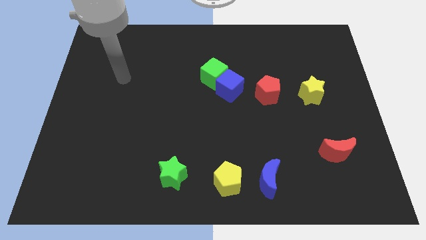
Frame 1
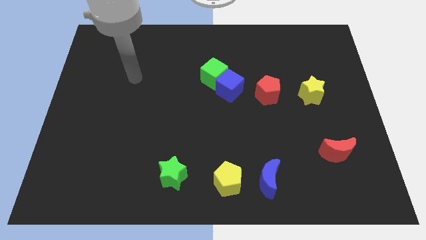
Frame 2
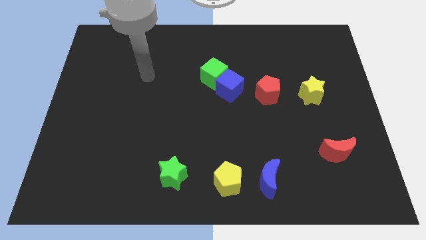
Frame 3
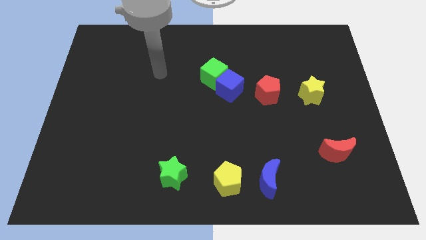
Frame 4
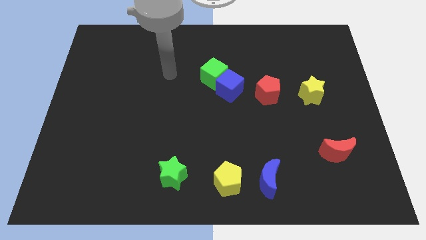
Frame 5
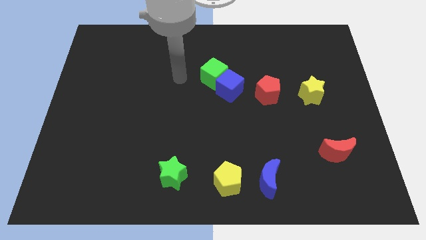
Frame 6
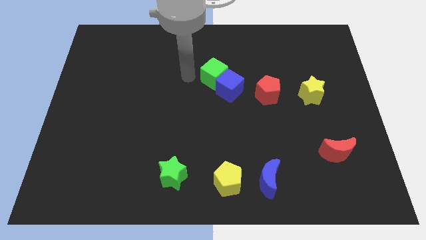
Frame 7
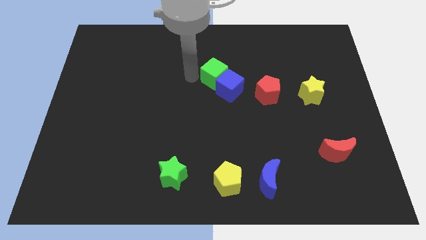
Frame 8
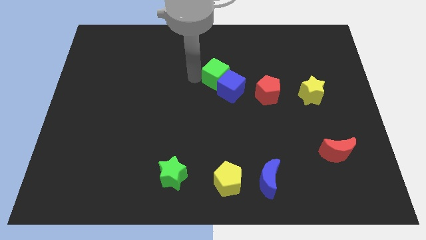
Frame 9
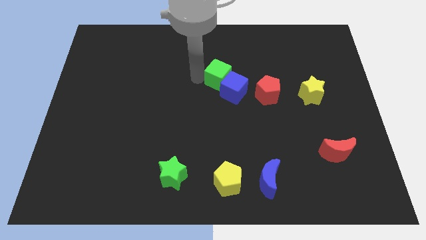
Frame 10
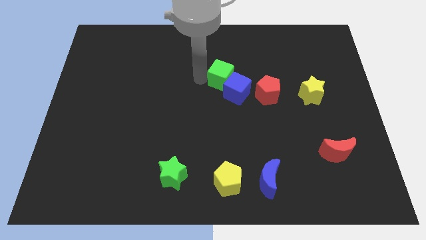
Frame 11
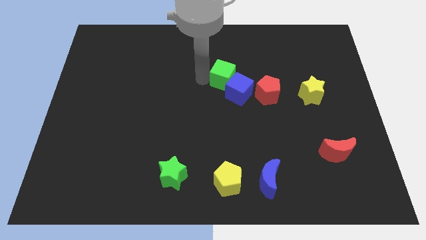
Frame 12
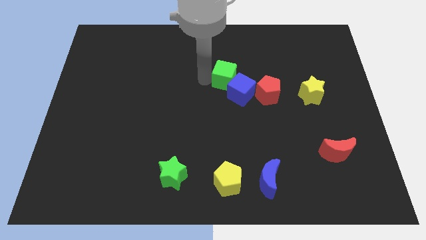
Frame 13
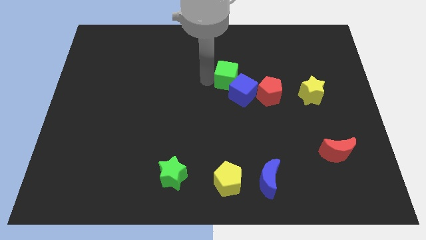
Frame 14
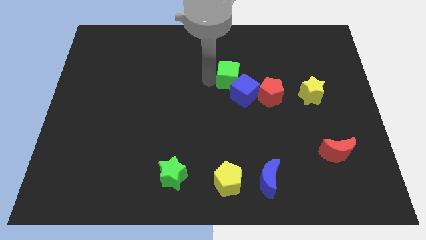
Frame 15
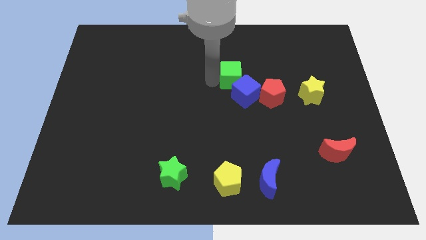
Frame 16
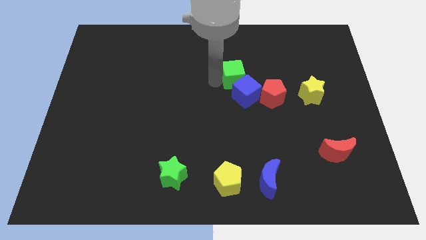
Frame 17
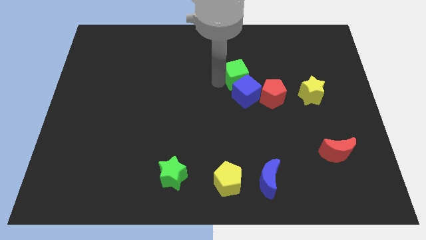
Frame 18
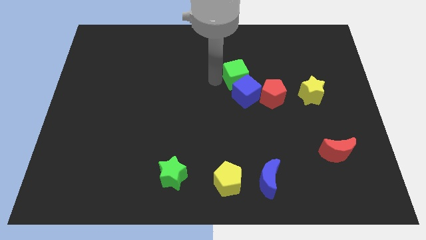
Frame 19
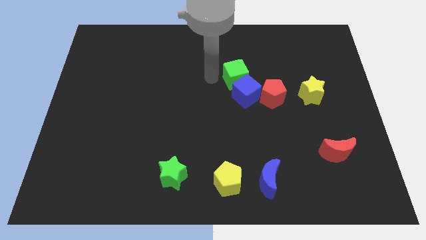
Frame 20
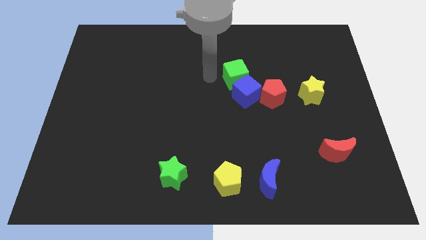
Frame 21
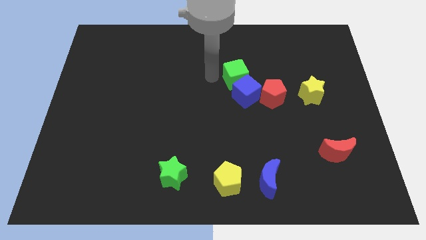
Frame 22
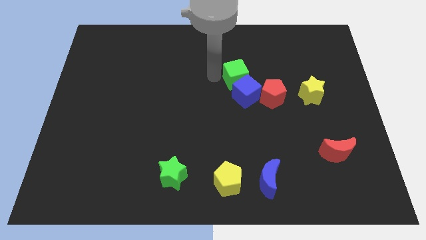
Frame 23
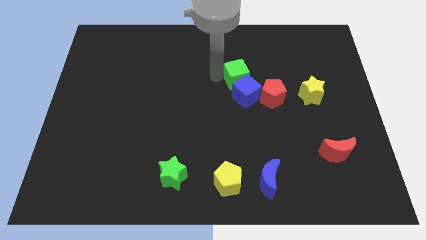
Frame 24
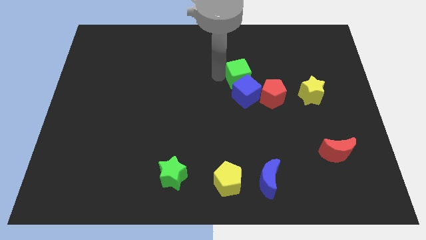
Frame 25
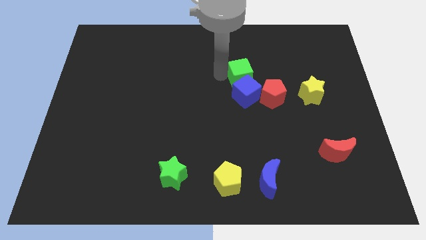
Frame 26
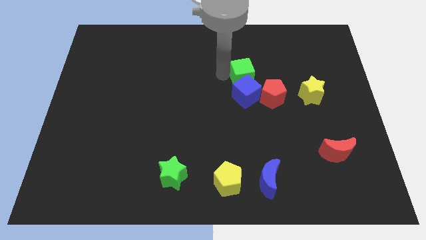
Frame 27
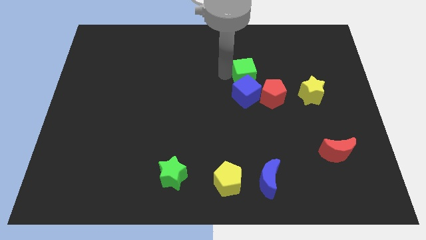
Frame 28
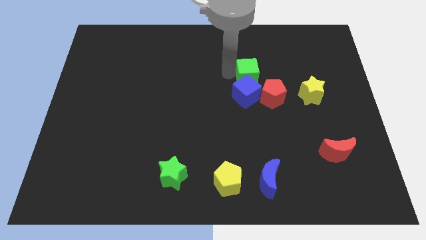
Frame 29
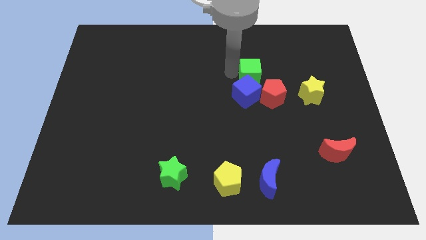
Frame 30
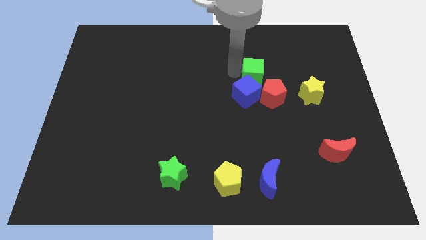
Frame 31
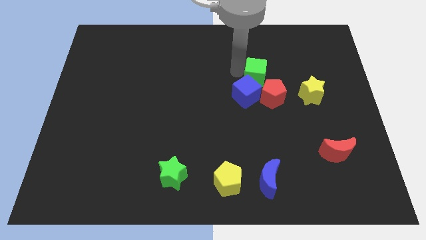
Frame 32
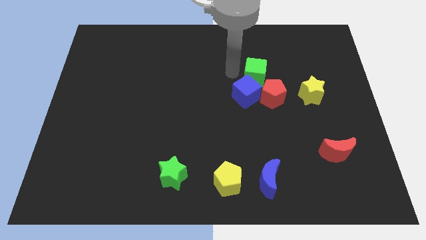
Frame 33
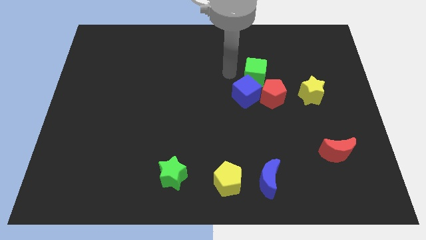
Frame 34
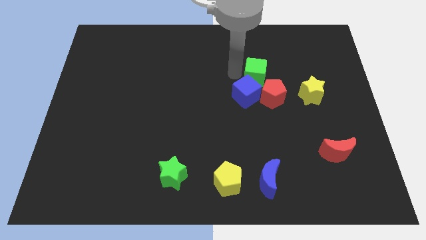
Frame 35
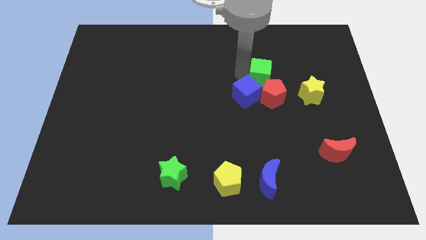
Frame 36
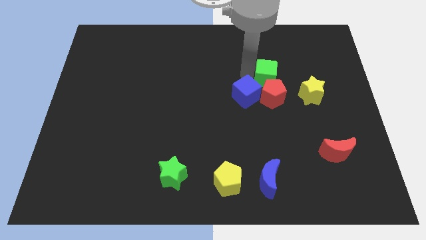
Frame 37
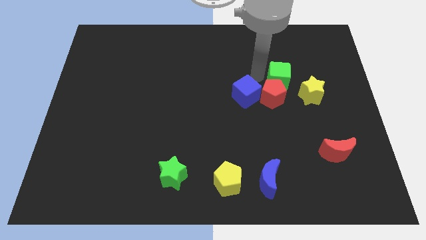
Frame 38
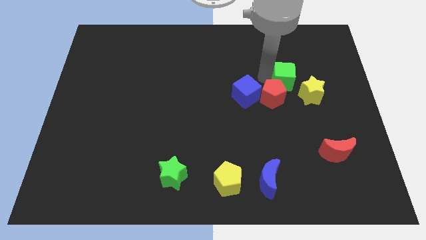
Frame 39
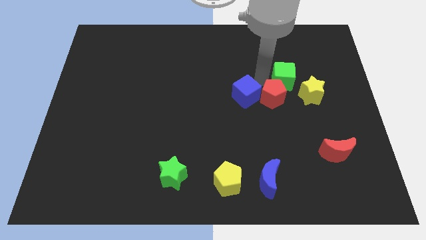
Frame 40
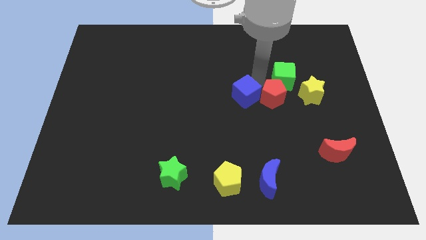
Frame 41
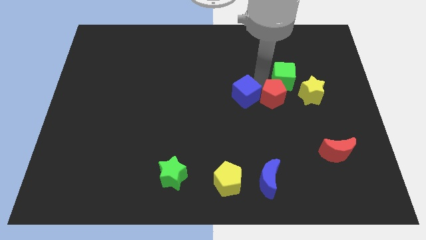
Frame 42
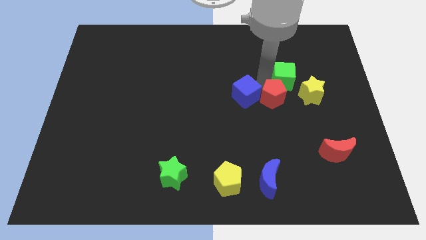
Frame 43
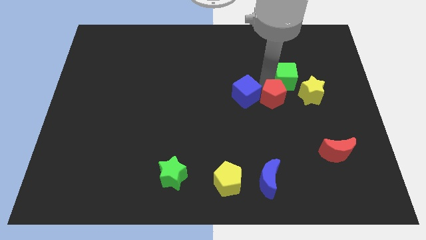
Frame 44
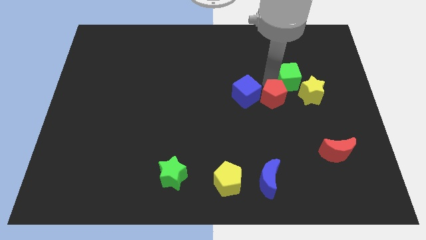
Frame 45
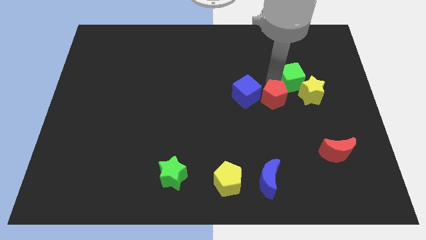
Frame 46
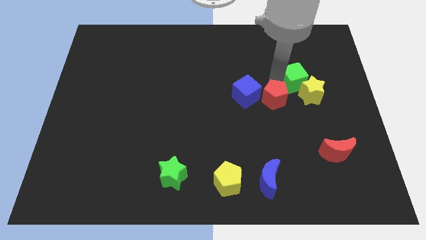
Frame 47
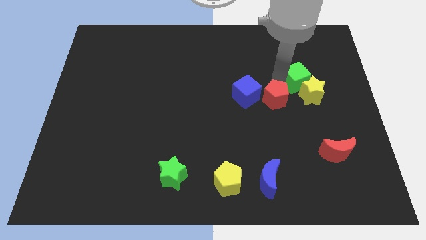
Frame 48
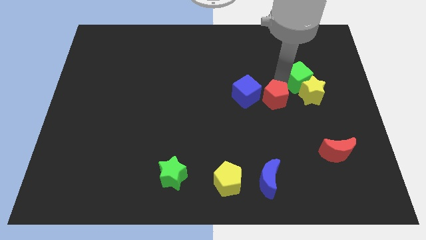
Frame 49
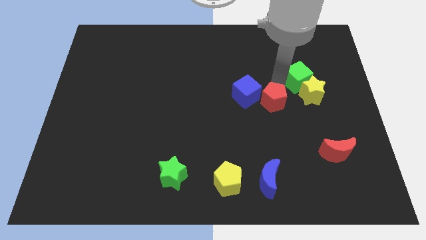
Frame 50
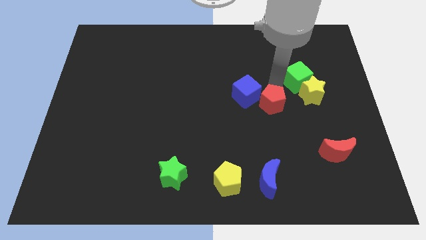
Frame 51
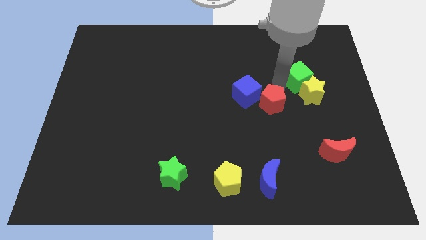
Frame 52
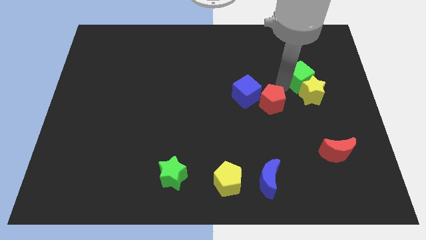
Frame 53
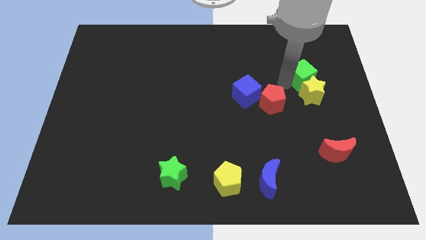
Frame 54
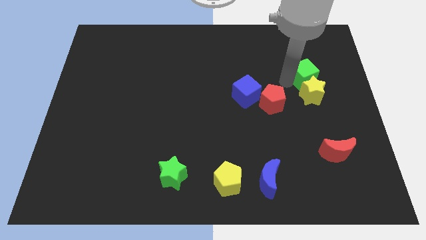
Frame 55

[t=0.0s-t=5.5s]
move the green cube to the top right of the yellow star

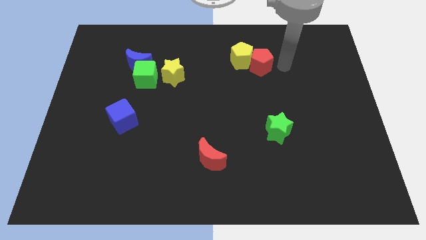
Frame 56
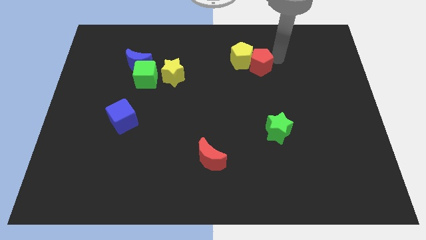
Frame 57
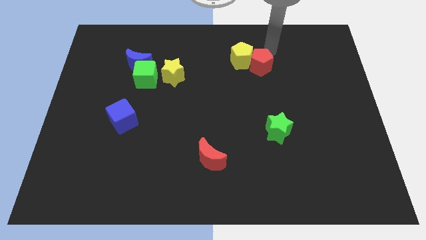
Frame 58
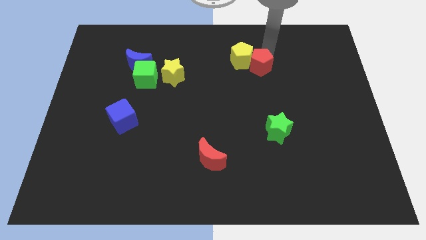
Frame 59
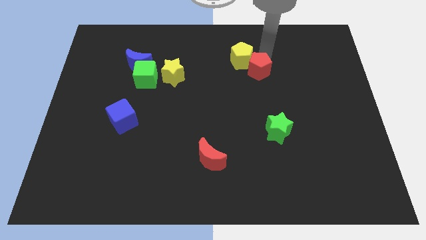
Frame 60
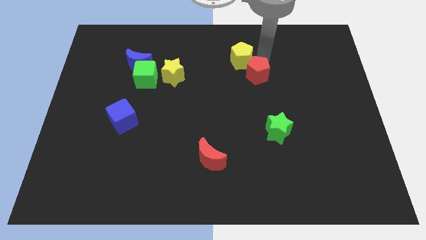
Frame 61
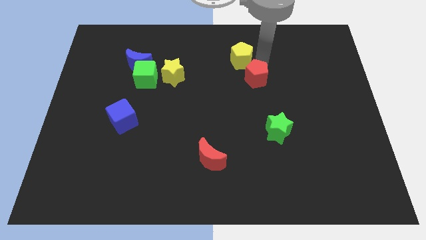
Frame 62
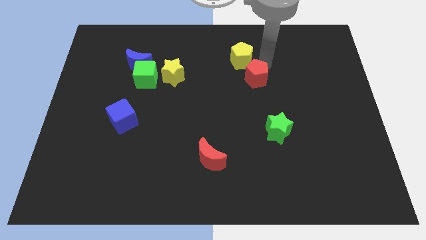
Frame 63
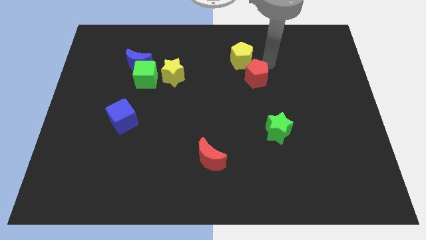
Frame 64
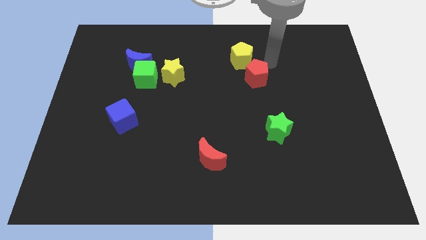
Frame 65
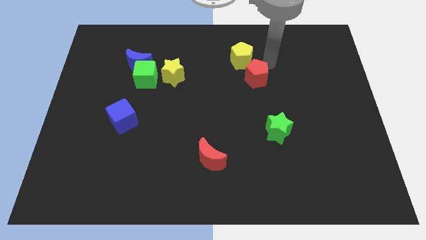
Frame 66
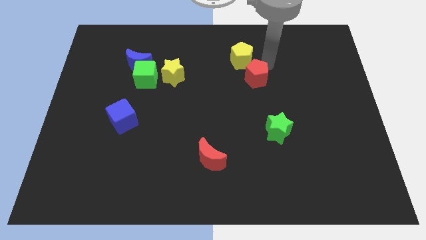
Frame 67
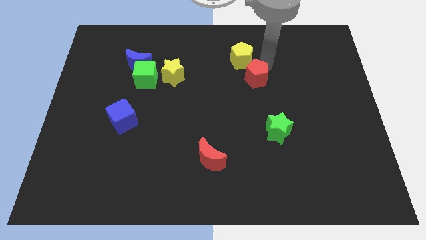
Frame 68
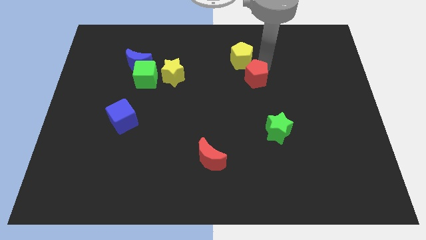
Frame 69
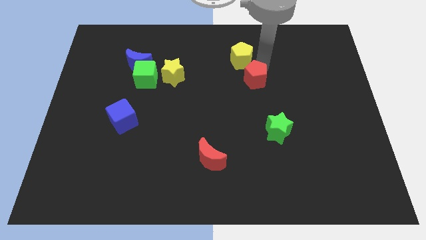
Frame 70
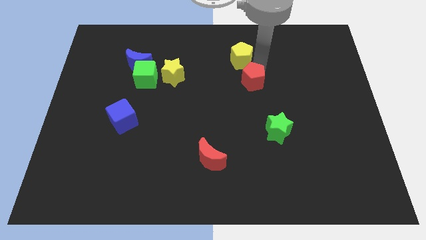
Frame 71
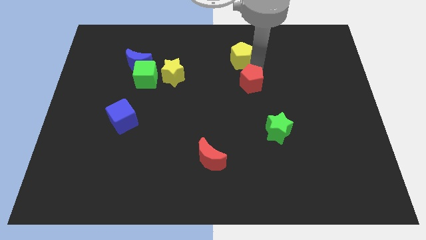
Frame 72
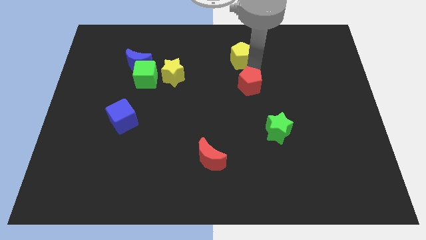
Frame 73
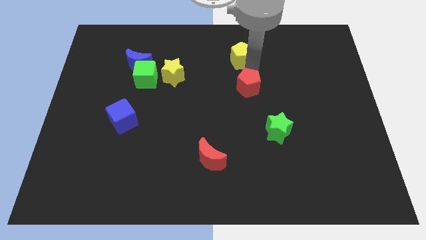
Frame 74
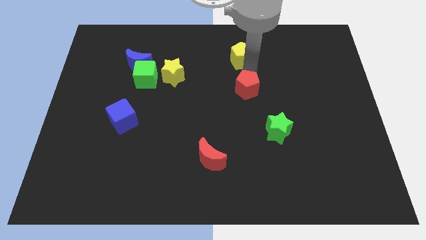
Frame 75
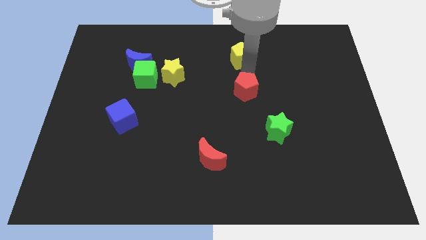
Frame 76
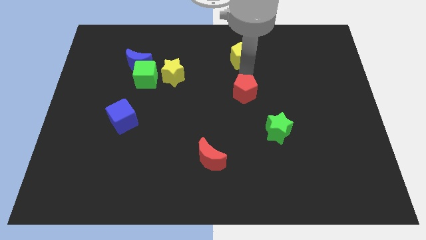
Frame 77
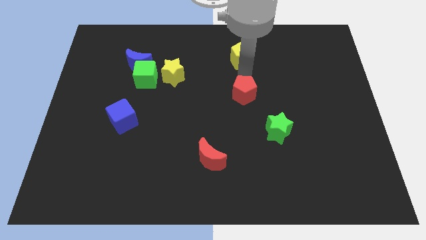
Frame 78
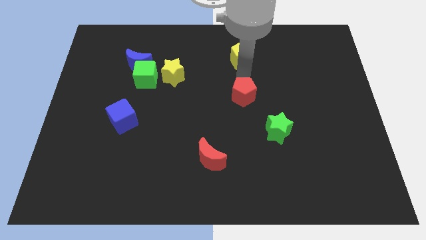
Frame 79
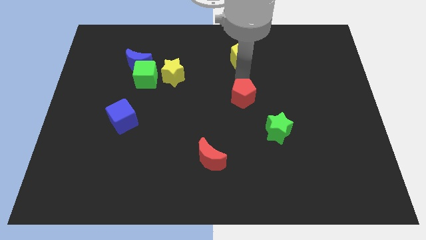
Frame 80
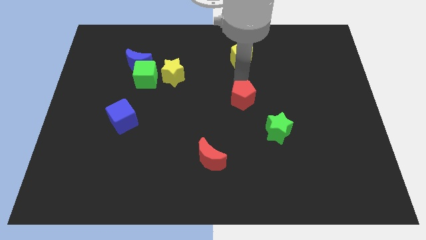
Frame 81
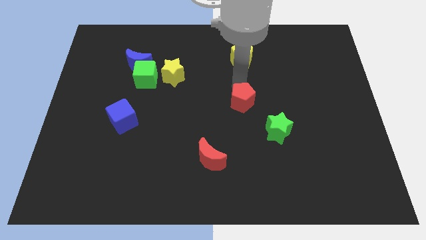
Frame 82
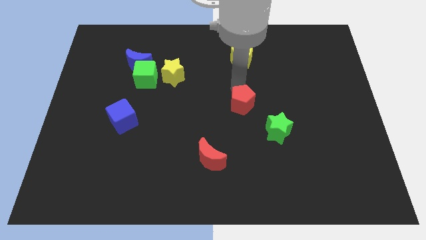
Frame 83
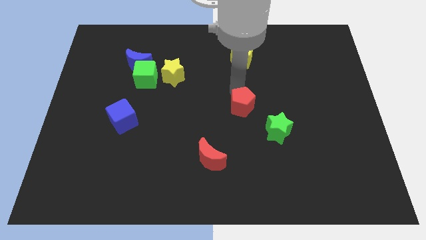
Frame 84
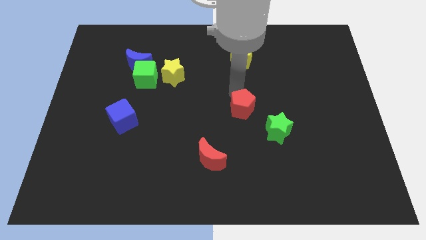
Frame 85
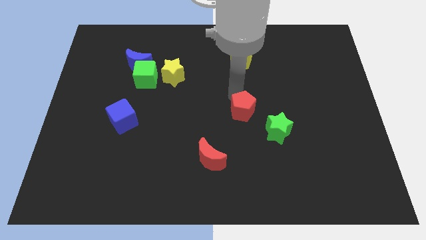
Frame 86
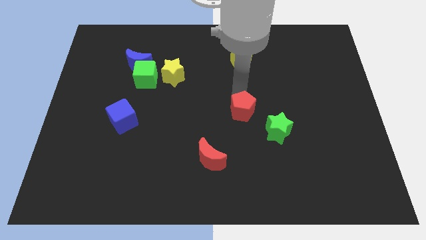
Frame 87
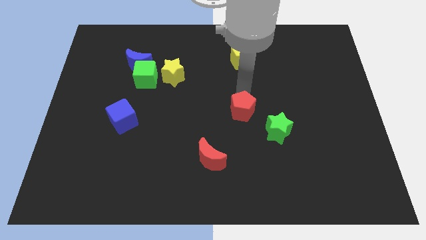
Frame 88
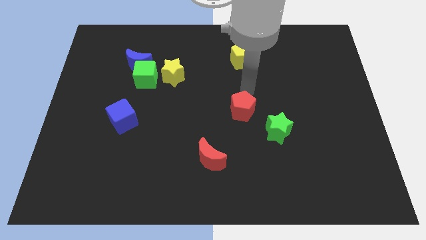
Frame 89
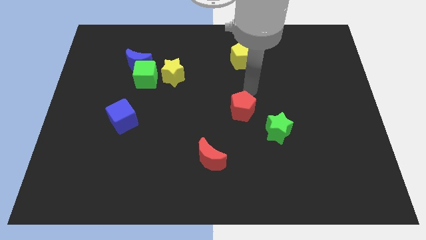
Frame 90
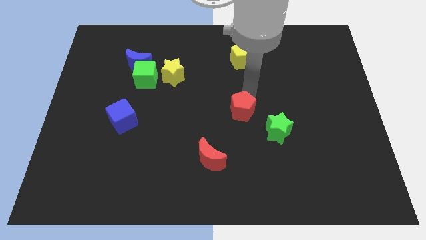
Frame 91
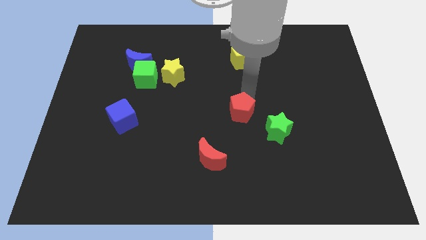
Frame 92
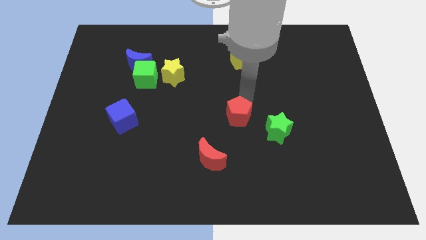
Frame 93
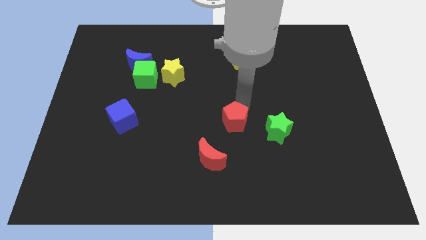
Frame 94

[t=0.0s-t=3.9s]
put the red pentagon diagonally up and to the right of the red moon
